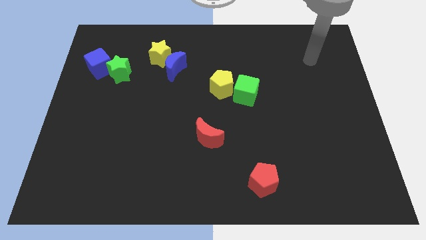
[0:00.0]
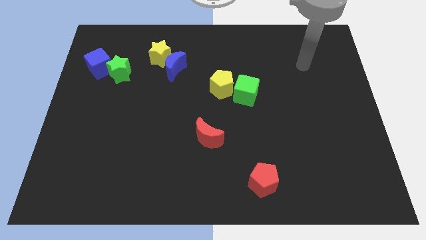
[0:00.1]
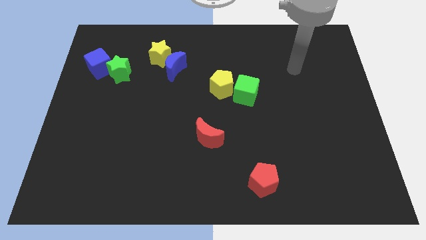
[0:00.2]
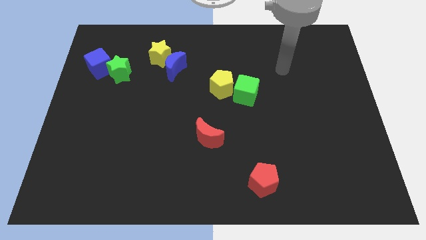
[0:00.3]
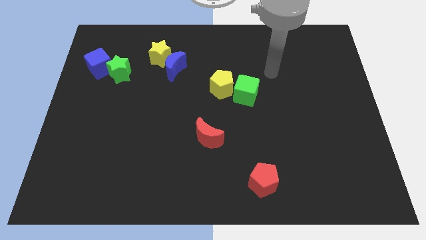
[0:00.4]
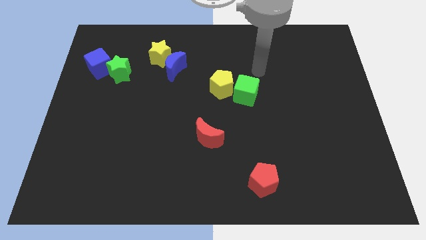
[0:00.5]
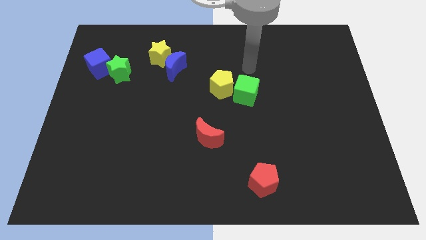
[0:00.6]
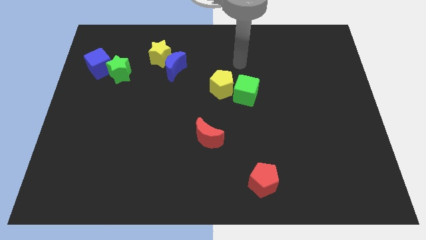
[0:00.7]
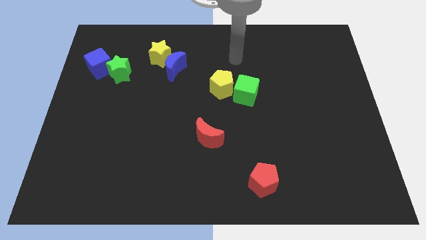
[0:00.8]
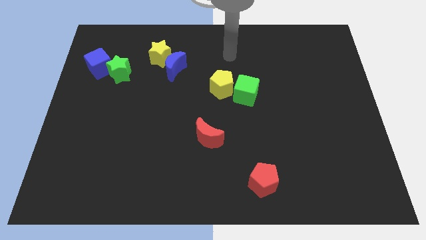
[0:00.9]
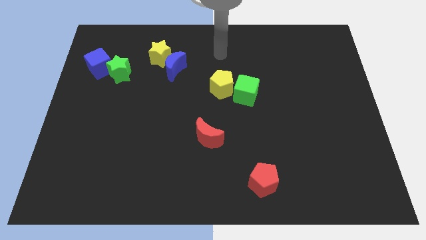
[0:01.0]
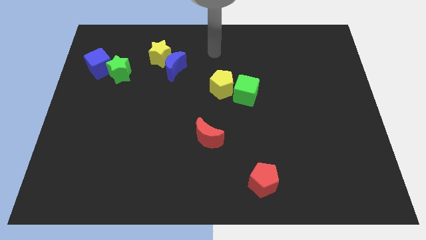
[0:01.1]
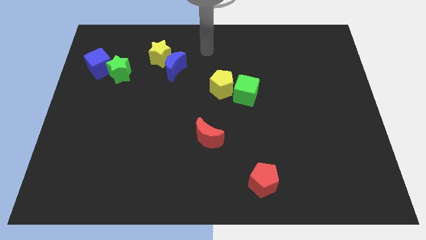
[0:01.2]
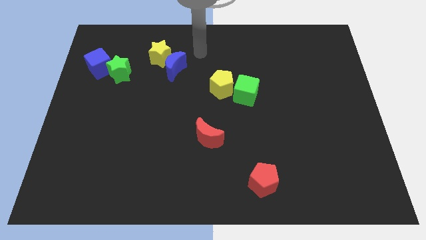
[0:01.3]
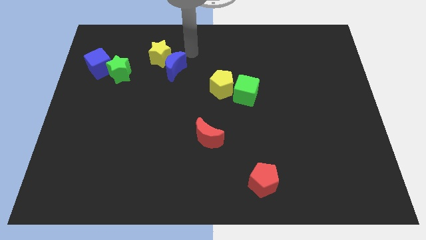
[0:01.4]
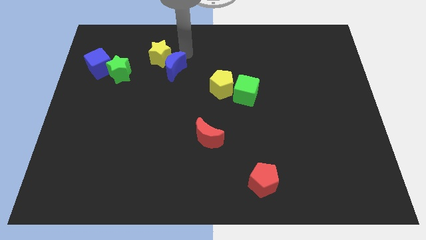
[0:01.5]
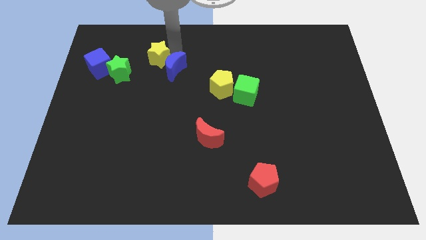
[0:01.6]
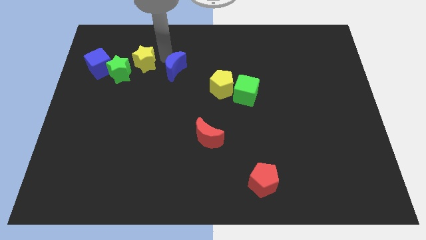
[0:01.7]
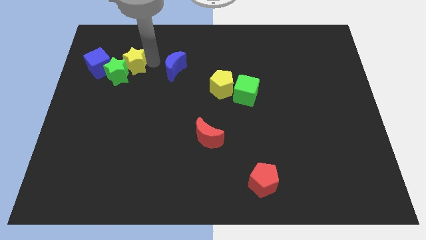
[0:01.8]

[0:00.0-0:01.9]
pull the blue moon apart from the yellow star

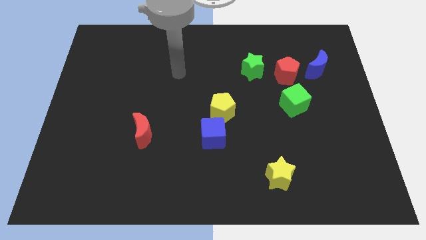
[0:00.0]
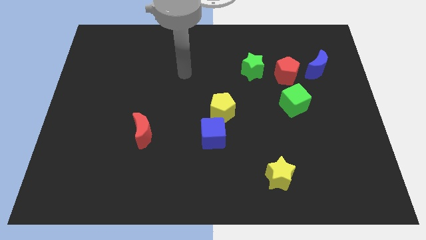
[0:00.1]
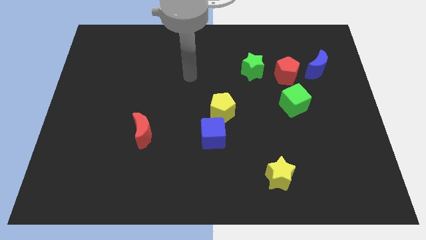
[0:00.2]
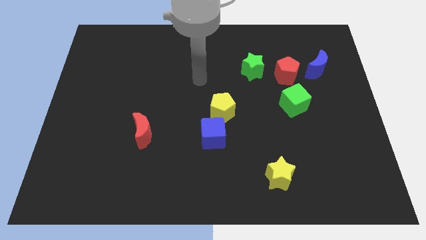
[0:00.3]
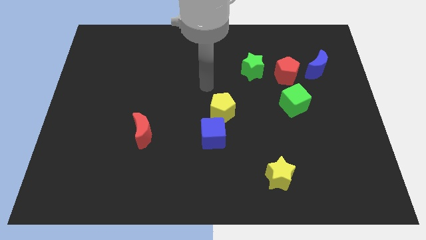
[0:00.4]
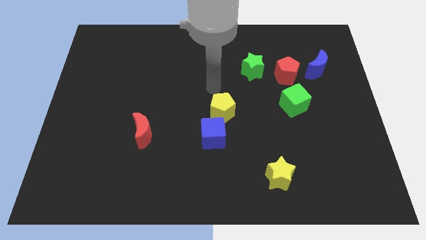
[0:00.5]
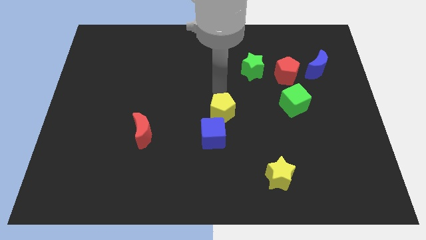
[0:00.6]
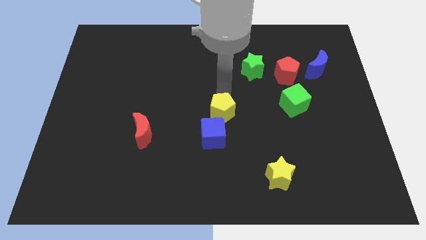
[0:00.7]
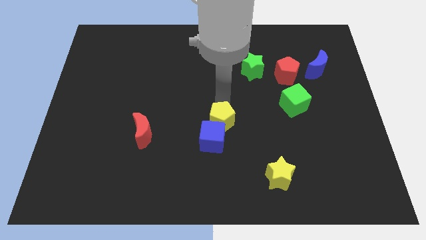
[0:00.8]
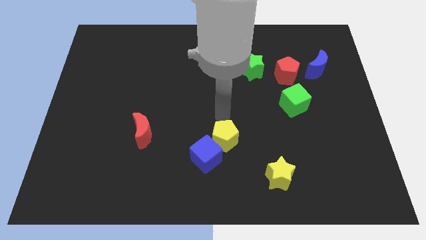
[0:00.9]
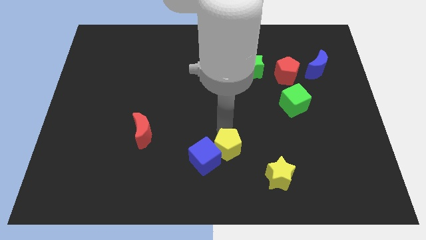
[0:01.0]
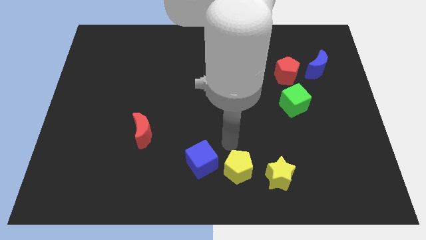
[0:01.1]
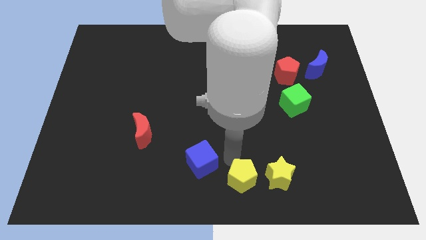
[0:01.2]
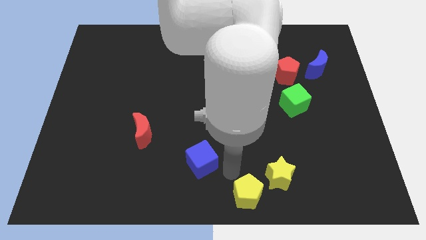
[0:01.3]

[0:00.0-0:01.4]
move the blue cube away from the yellow pentagon

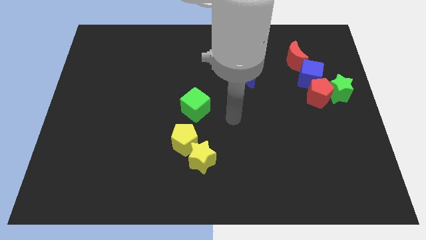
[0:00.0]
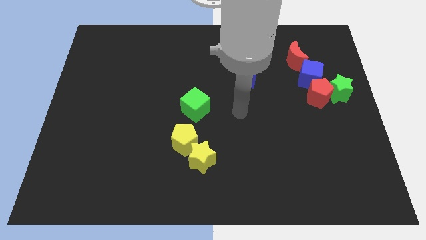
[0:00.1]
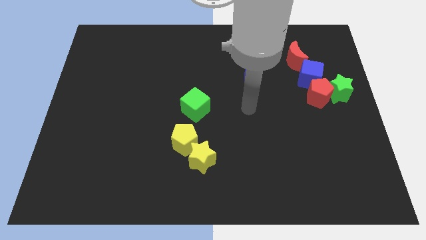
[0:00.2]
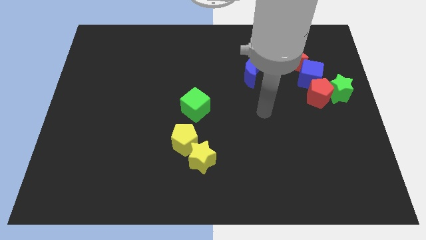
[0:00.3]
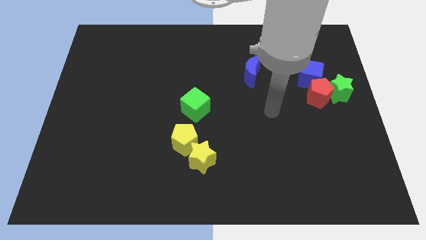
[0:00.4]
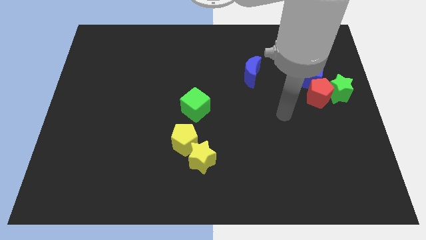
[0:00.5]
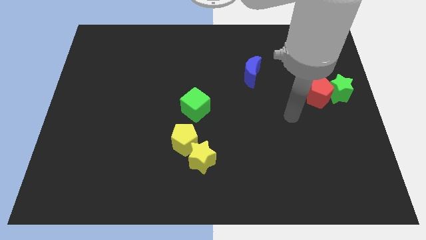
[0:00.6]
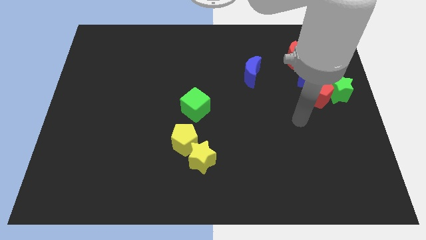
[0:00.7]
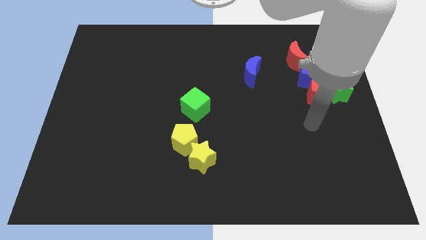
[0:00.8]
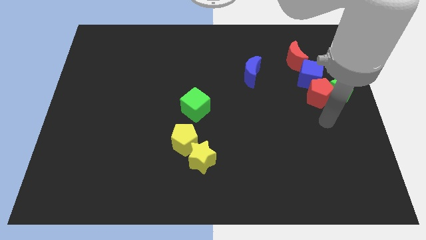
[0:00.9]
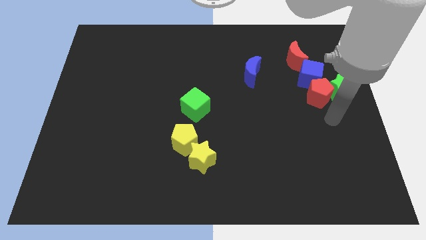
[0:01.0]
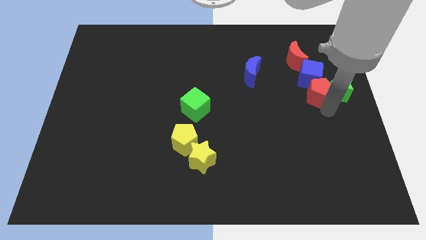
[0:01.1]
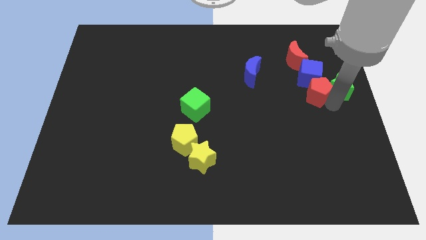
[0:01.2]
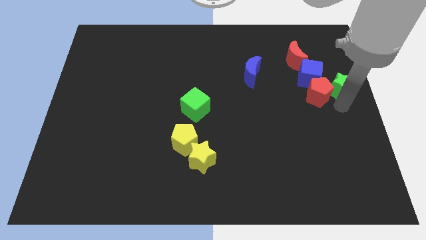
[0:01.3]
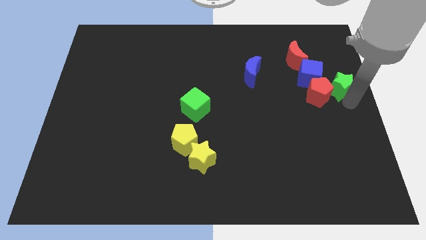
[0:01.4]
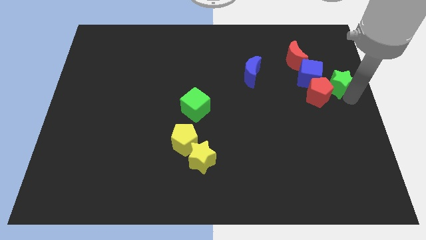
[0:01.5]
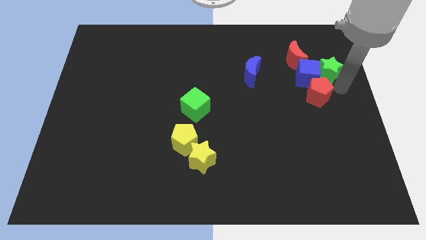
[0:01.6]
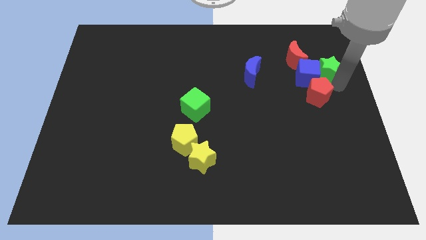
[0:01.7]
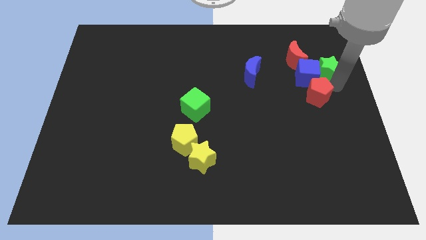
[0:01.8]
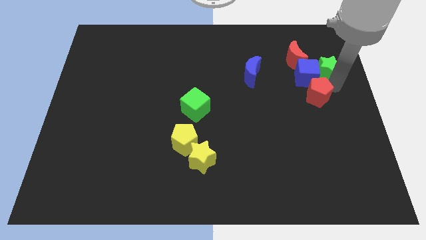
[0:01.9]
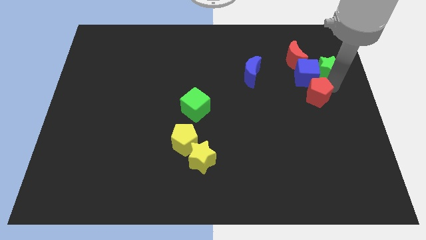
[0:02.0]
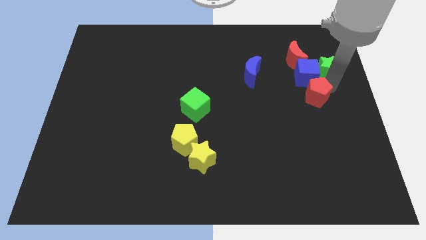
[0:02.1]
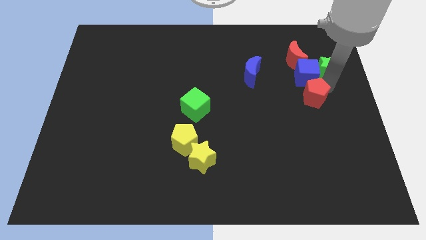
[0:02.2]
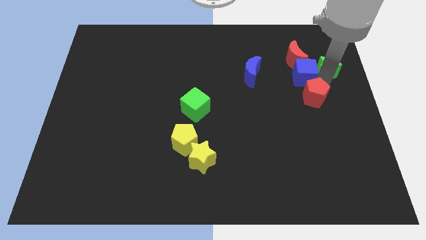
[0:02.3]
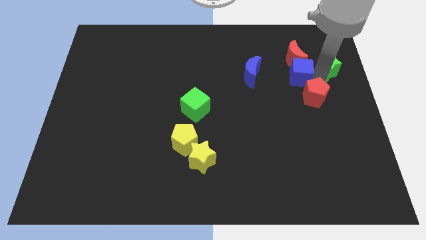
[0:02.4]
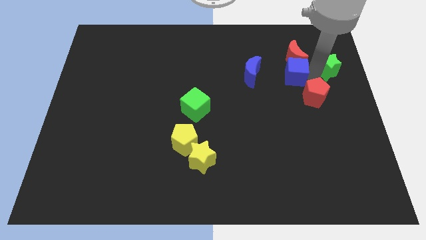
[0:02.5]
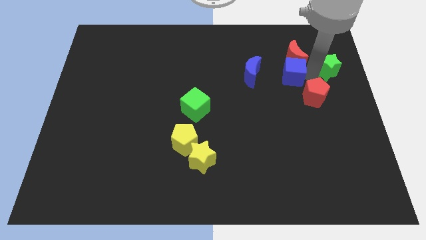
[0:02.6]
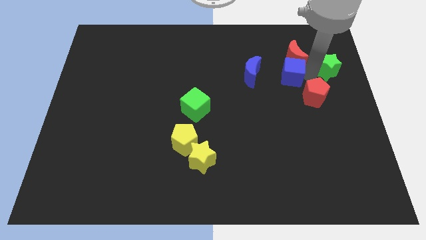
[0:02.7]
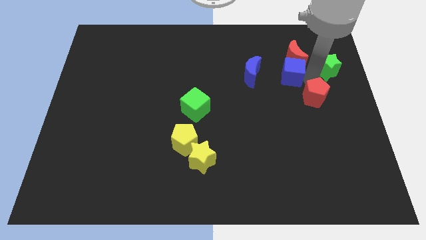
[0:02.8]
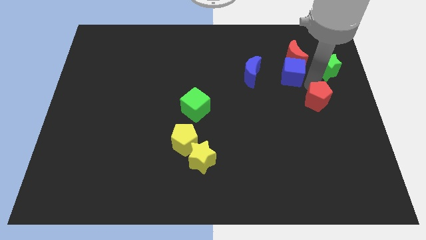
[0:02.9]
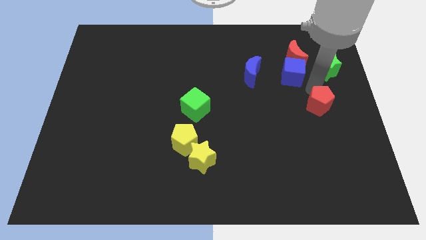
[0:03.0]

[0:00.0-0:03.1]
pull the red pentagon apart from the green star and blue cube

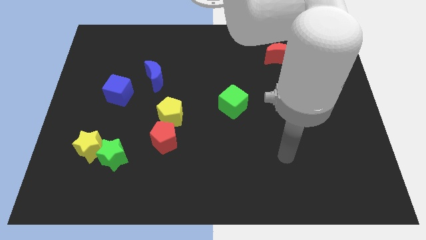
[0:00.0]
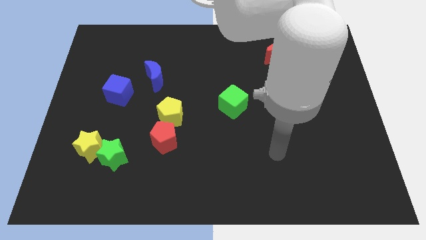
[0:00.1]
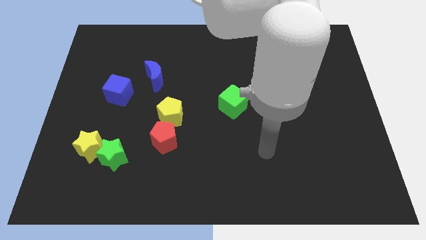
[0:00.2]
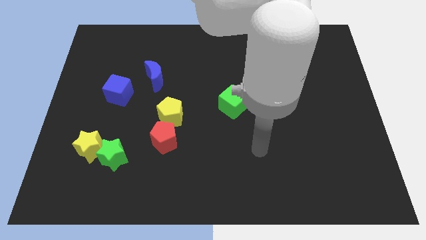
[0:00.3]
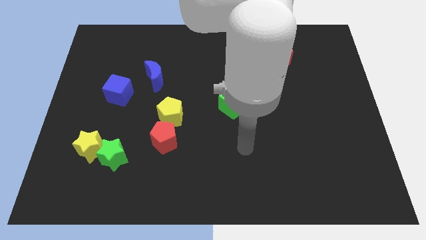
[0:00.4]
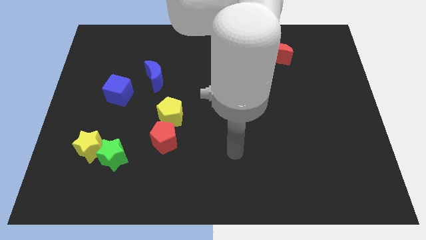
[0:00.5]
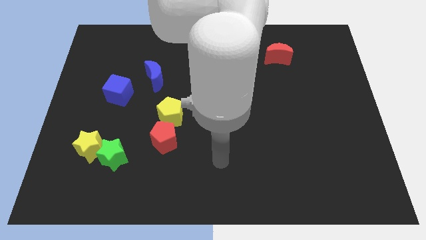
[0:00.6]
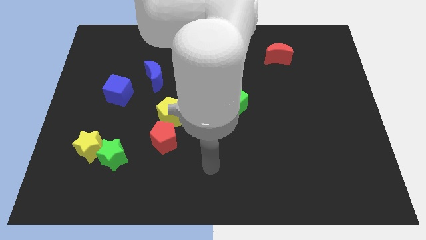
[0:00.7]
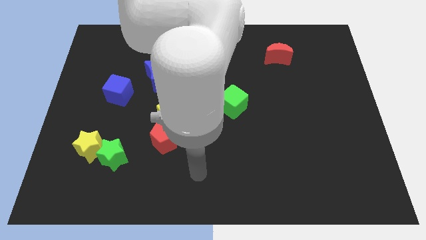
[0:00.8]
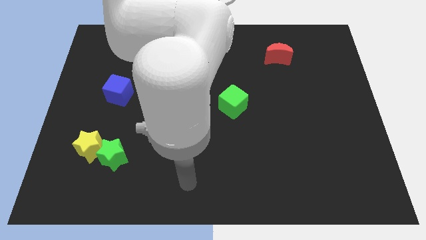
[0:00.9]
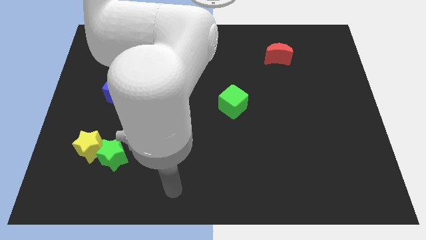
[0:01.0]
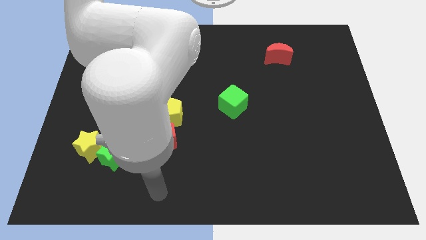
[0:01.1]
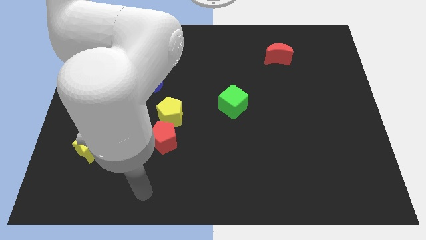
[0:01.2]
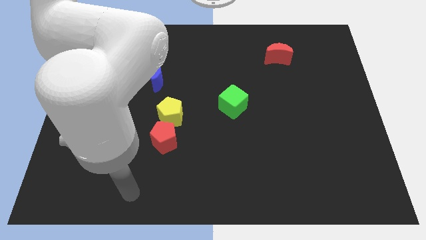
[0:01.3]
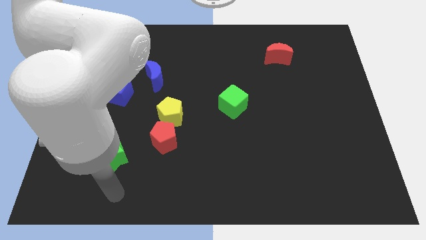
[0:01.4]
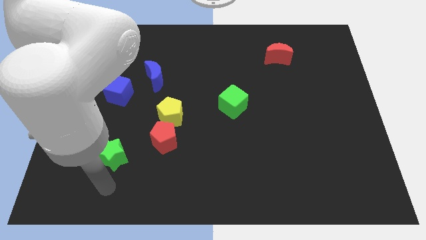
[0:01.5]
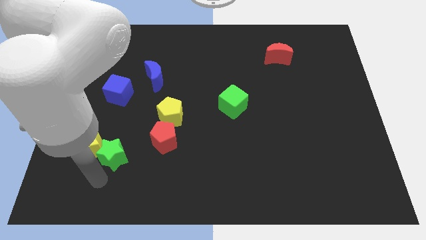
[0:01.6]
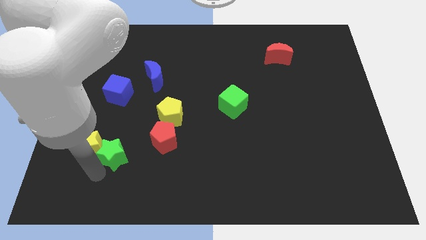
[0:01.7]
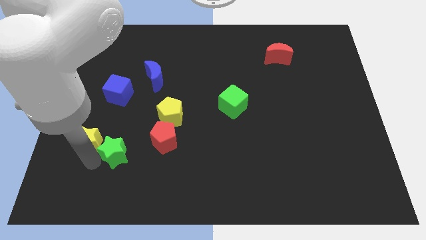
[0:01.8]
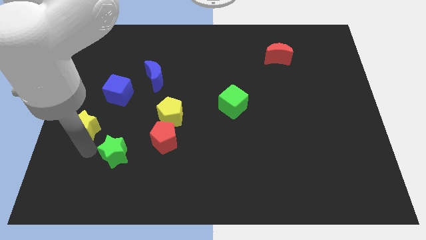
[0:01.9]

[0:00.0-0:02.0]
separate the green star from the yellow star

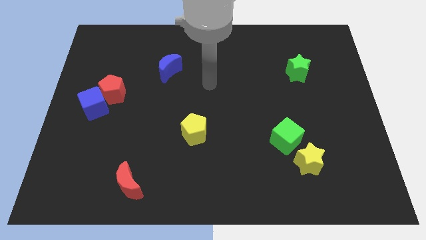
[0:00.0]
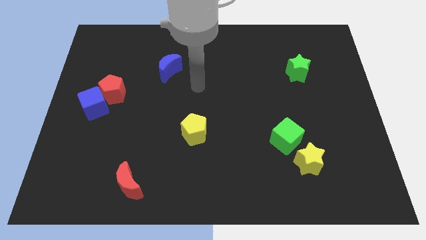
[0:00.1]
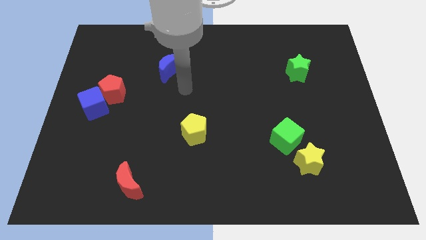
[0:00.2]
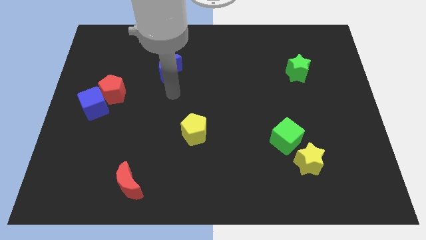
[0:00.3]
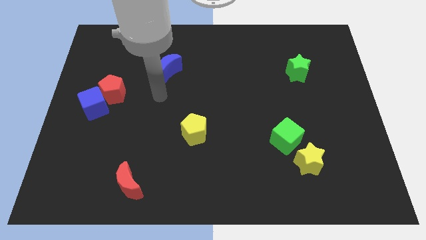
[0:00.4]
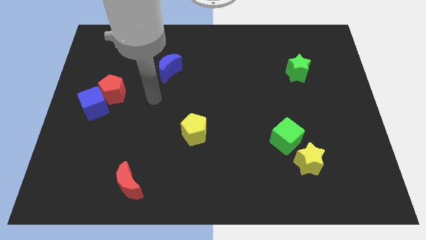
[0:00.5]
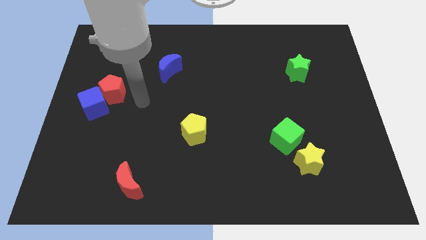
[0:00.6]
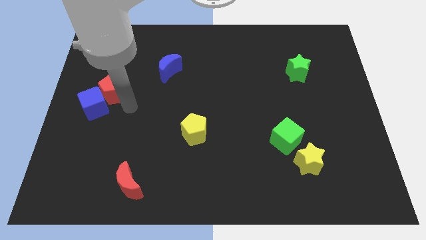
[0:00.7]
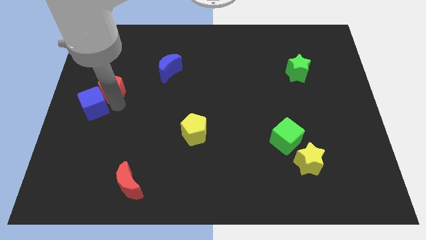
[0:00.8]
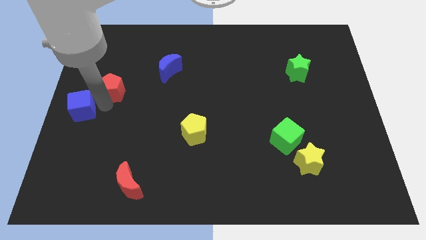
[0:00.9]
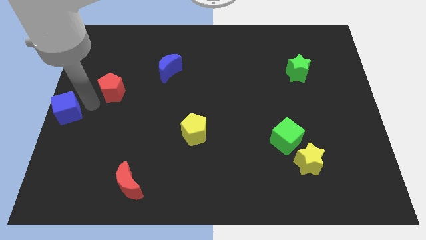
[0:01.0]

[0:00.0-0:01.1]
move the red pentagon away from the blue cube
